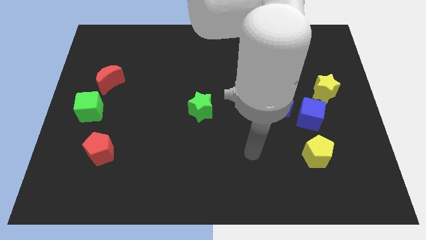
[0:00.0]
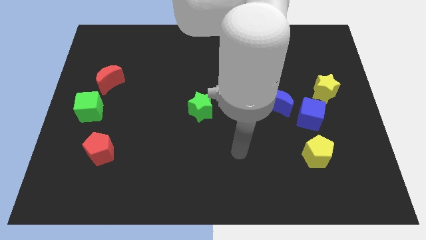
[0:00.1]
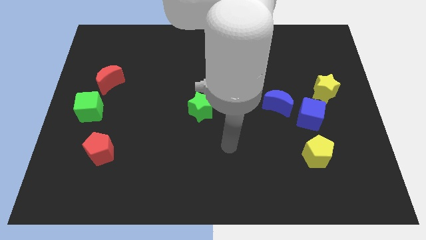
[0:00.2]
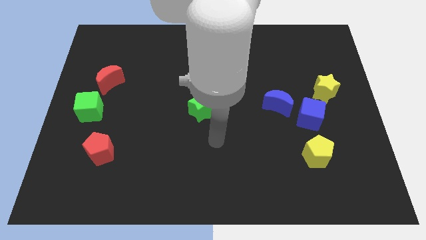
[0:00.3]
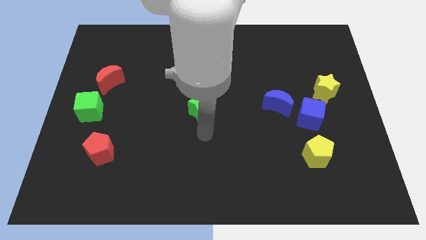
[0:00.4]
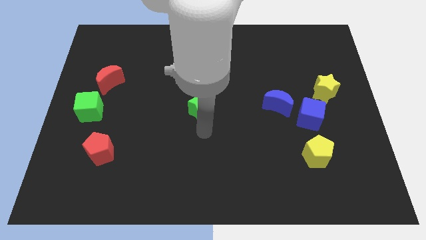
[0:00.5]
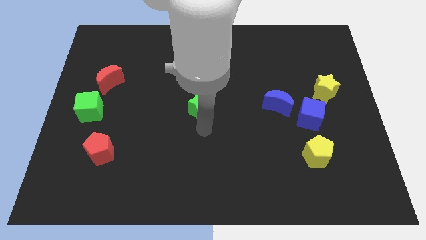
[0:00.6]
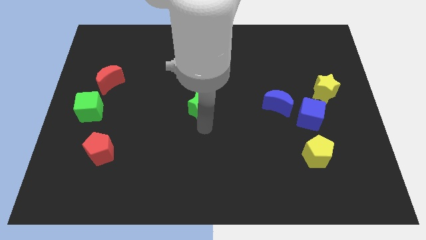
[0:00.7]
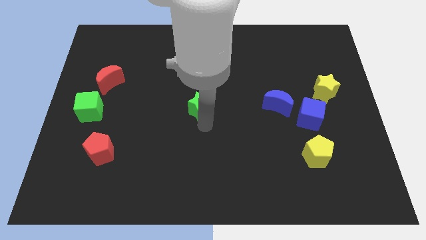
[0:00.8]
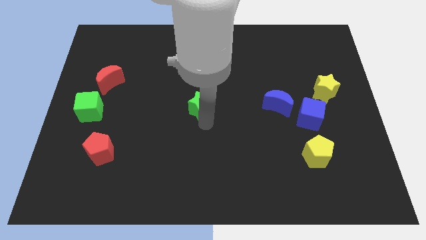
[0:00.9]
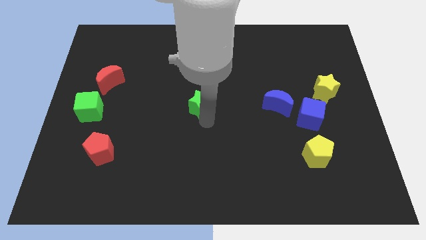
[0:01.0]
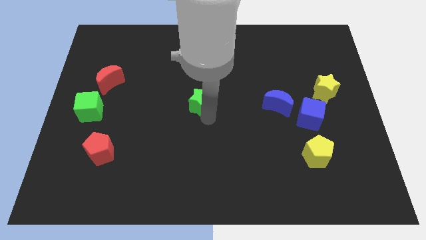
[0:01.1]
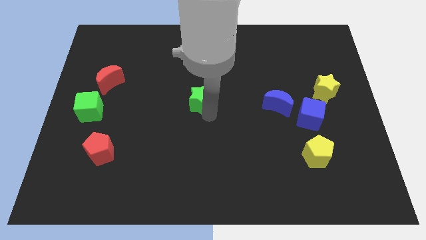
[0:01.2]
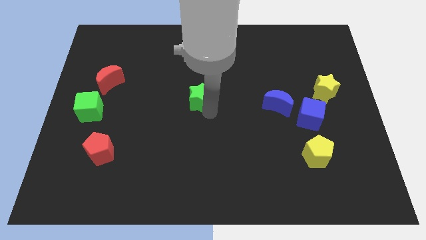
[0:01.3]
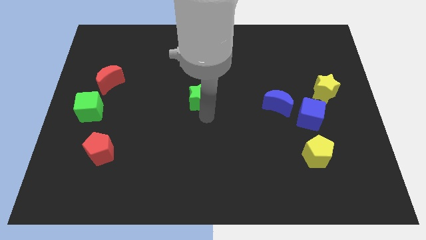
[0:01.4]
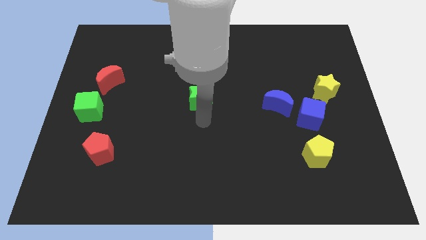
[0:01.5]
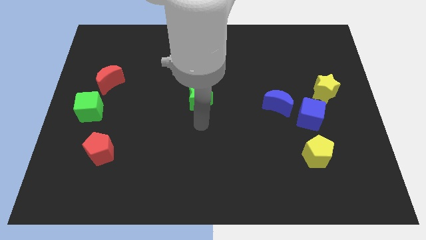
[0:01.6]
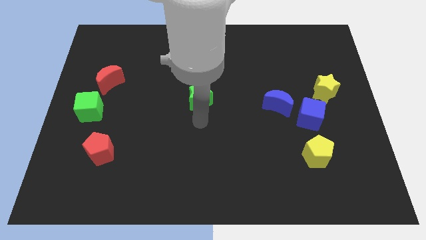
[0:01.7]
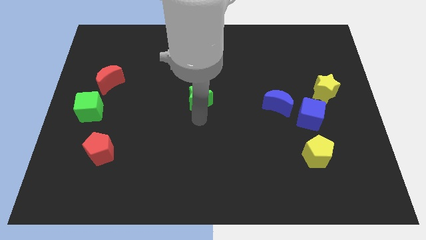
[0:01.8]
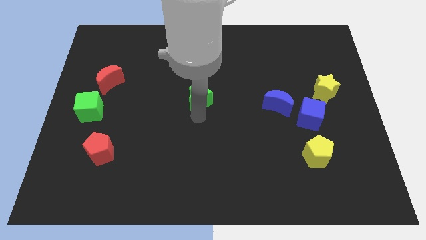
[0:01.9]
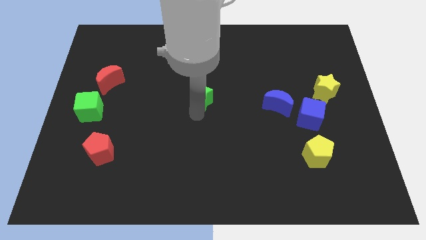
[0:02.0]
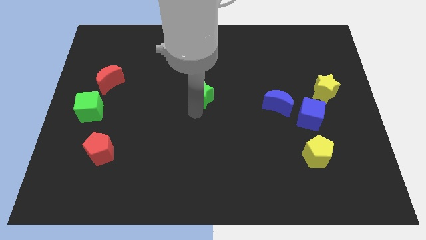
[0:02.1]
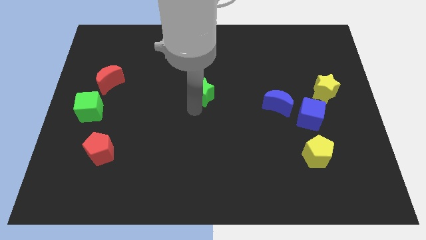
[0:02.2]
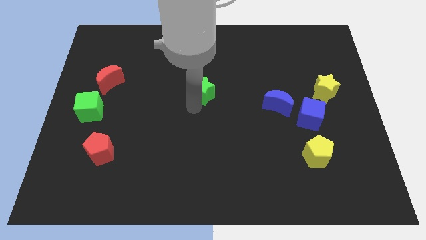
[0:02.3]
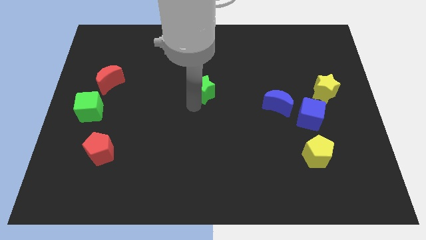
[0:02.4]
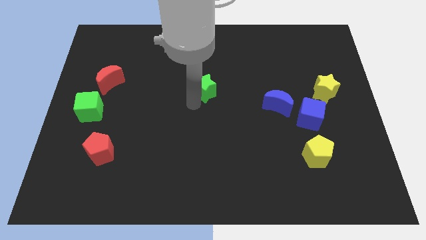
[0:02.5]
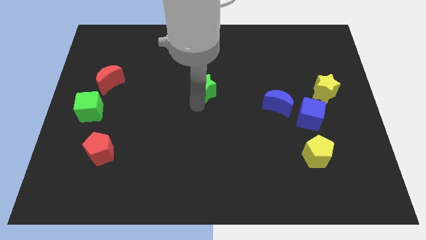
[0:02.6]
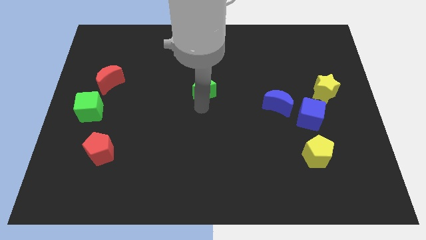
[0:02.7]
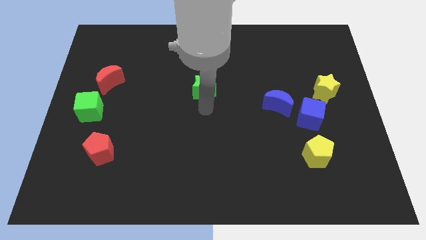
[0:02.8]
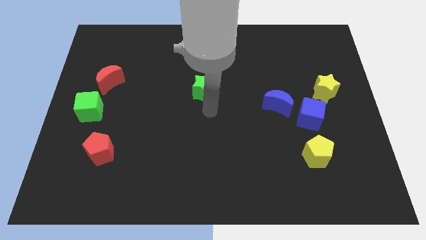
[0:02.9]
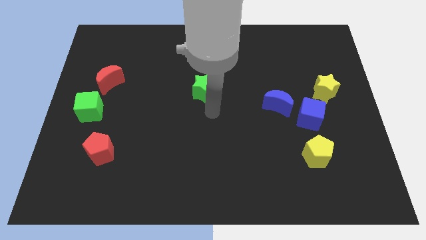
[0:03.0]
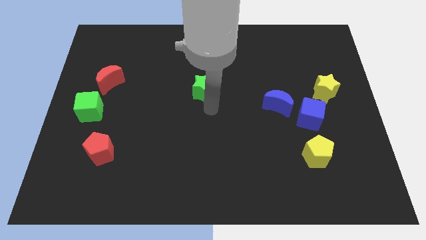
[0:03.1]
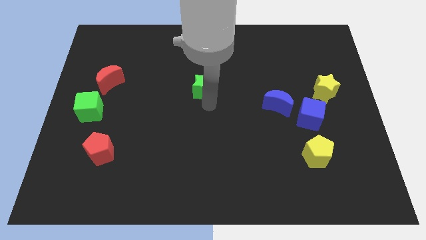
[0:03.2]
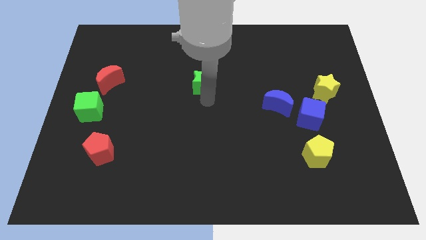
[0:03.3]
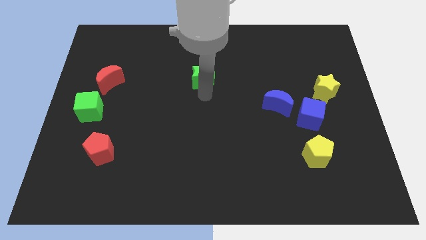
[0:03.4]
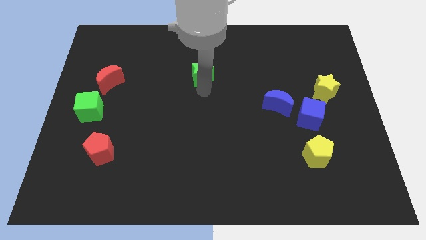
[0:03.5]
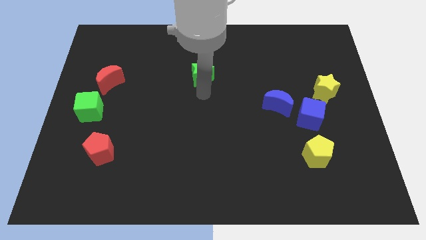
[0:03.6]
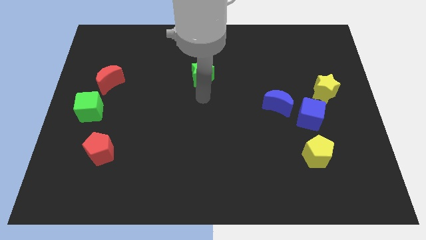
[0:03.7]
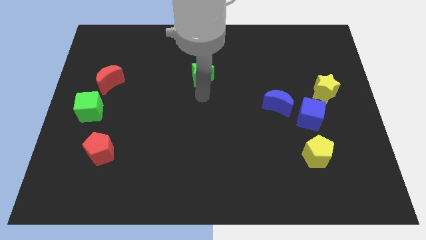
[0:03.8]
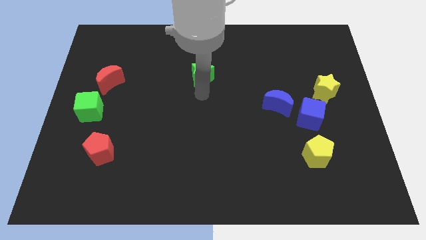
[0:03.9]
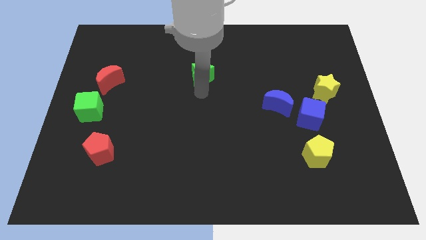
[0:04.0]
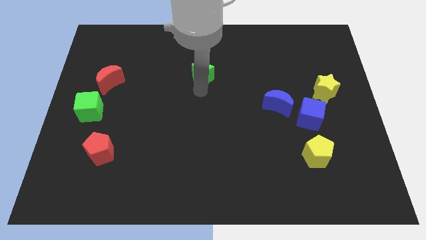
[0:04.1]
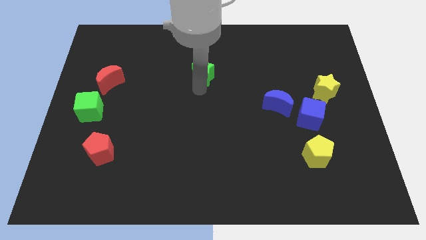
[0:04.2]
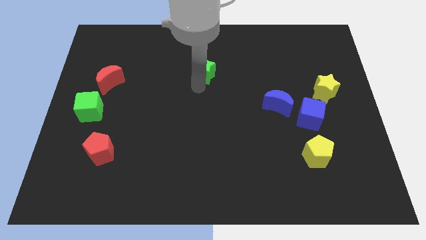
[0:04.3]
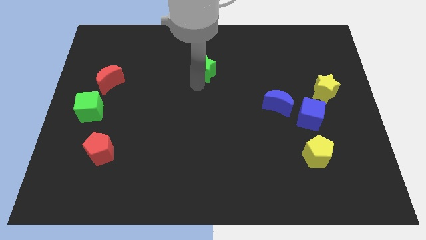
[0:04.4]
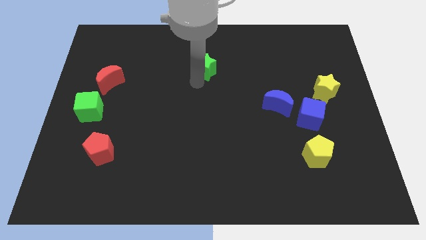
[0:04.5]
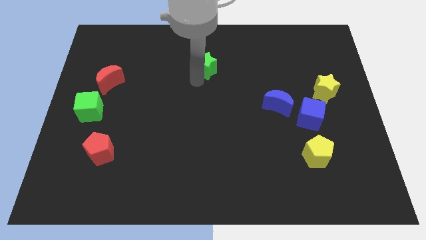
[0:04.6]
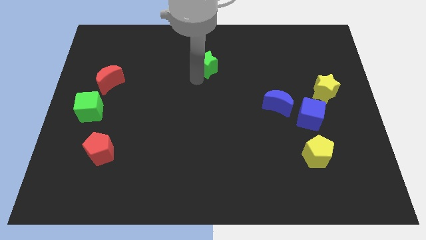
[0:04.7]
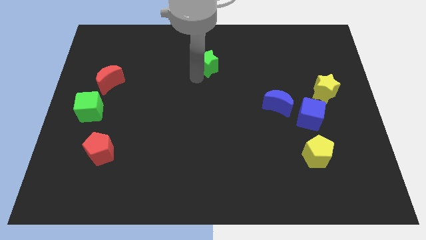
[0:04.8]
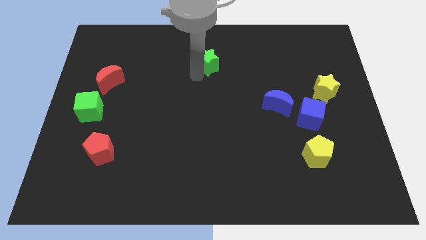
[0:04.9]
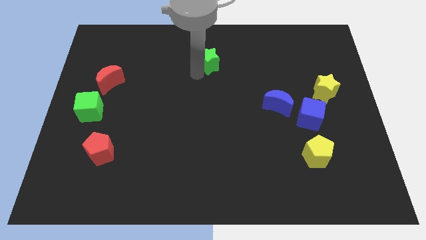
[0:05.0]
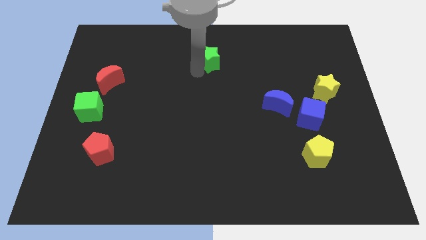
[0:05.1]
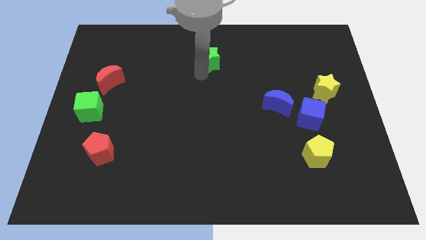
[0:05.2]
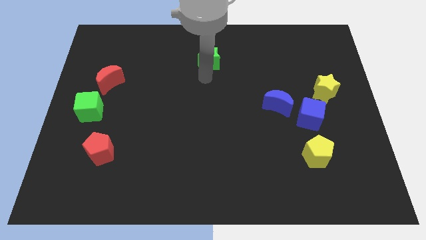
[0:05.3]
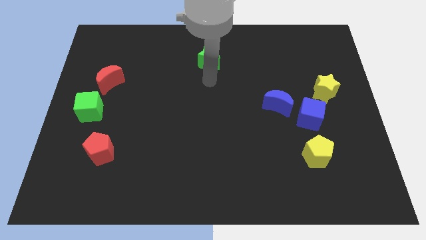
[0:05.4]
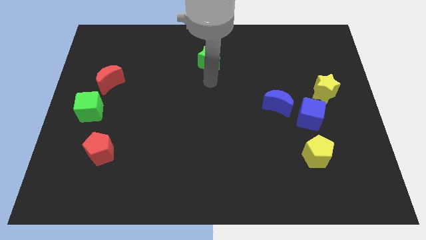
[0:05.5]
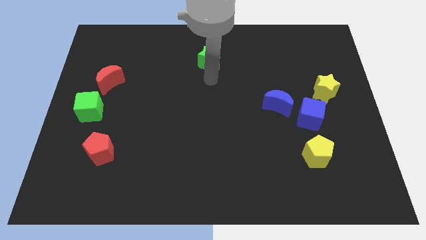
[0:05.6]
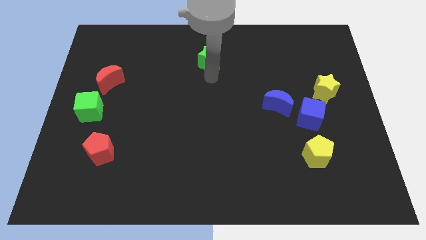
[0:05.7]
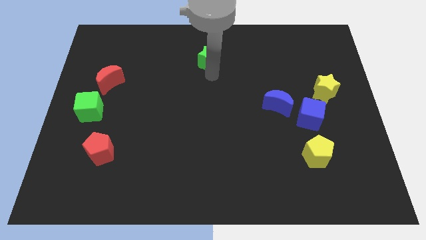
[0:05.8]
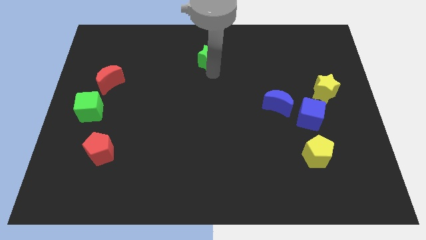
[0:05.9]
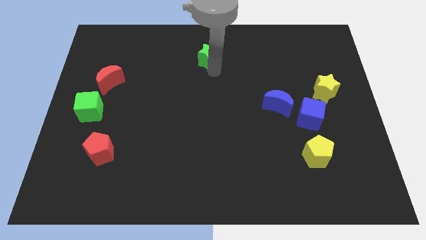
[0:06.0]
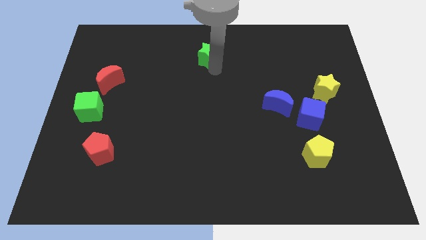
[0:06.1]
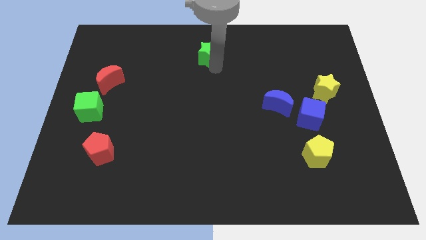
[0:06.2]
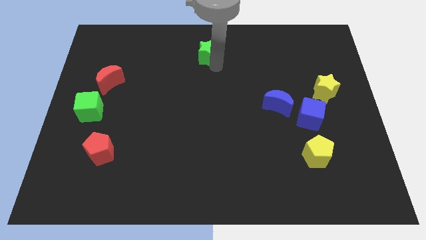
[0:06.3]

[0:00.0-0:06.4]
move the green star to the towards your base
